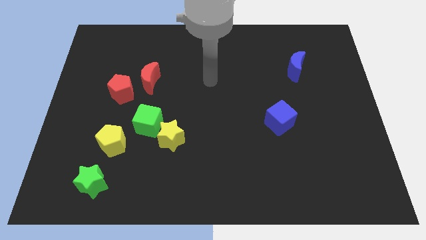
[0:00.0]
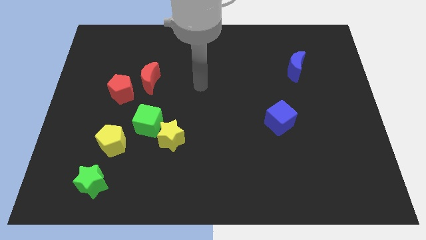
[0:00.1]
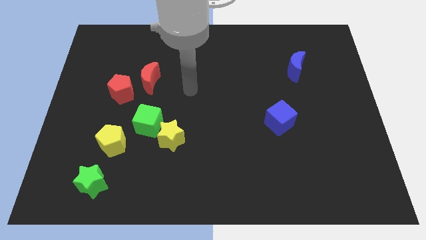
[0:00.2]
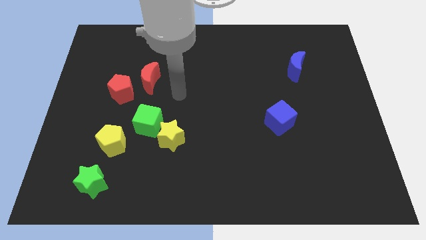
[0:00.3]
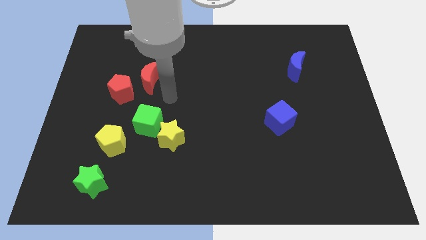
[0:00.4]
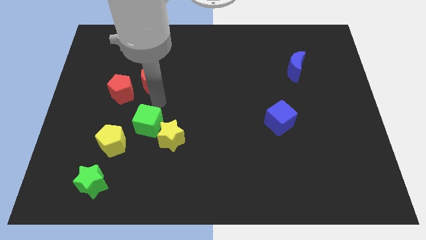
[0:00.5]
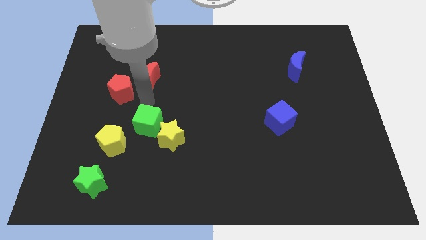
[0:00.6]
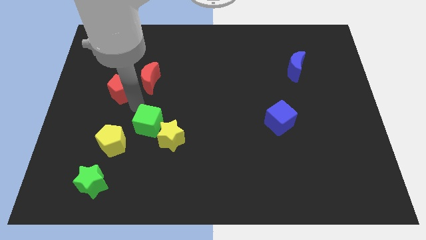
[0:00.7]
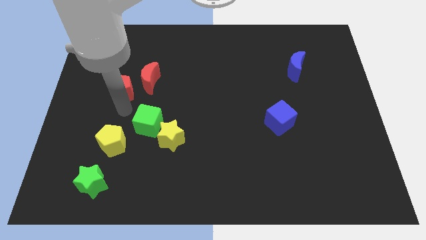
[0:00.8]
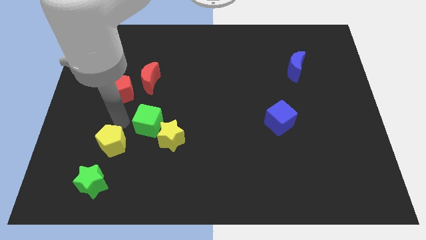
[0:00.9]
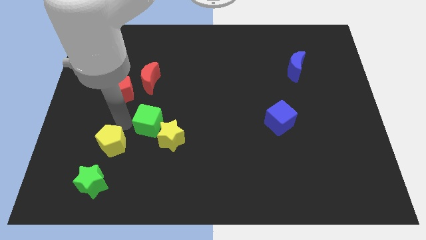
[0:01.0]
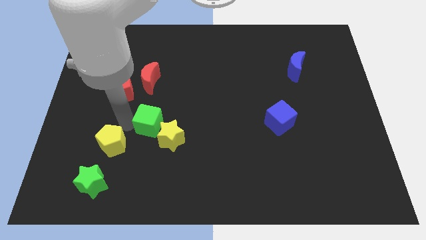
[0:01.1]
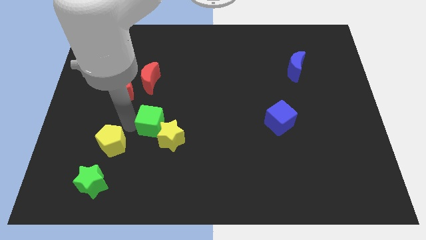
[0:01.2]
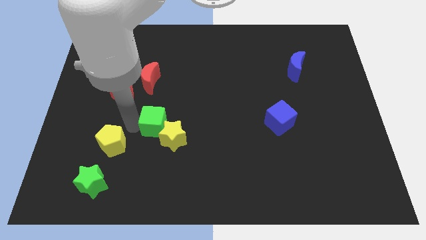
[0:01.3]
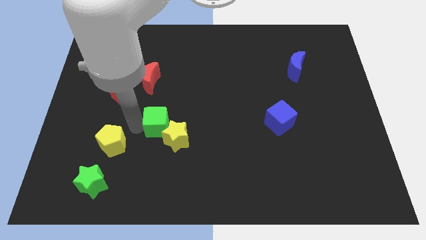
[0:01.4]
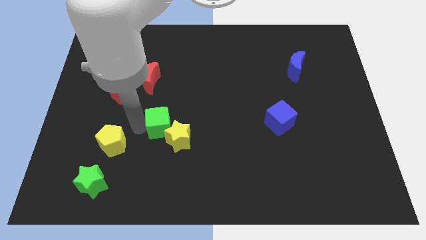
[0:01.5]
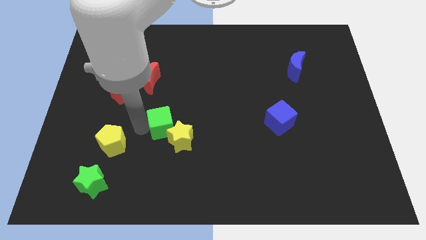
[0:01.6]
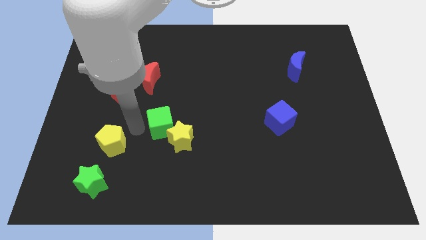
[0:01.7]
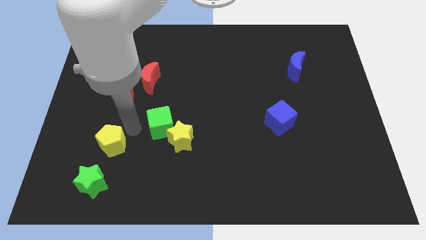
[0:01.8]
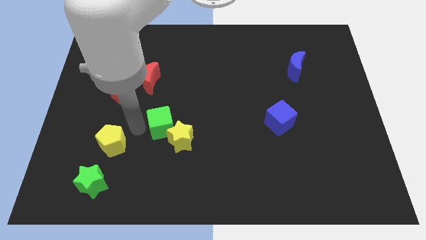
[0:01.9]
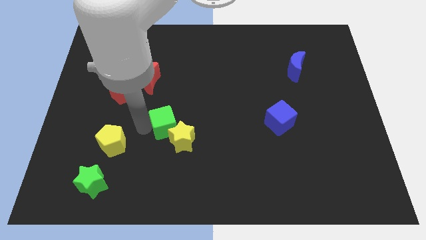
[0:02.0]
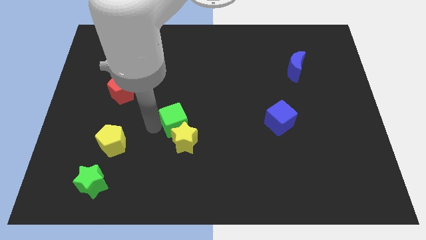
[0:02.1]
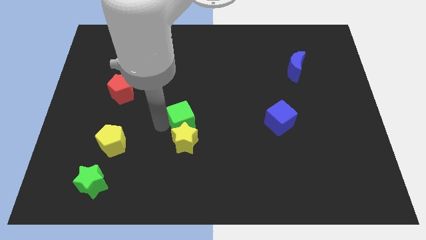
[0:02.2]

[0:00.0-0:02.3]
move the green cube somewhat to the right

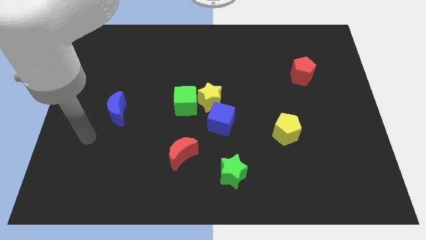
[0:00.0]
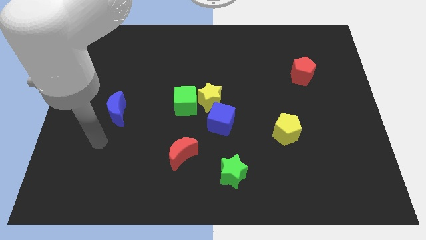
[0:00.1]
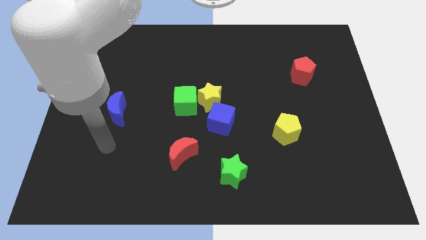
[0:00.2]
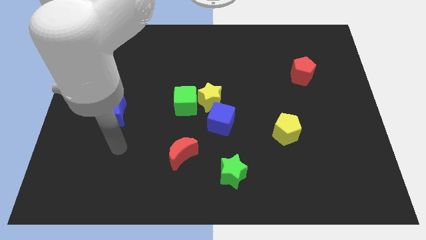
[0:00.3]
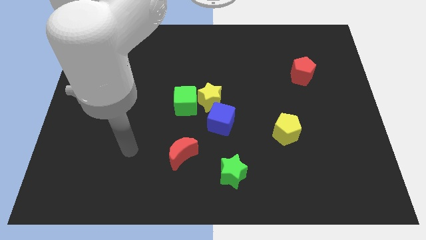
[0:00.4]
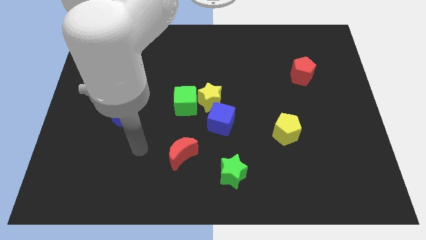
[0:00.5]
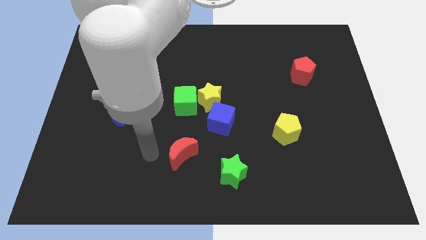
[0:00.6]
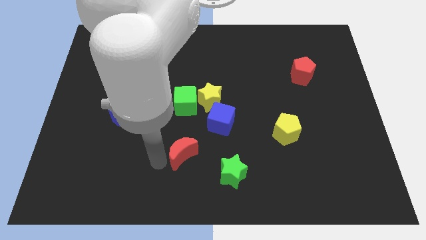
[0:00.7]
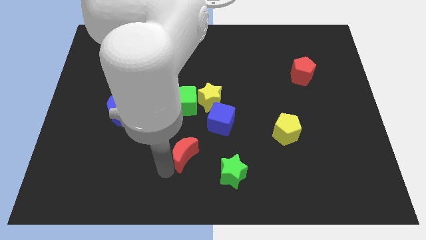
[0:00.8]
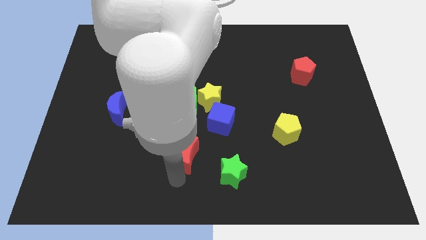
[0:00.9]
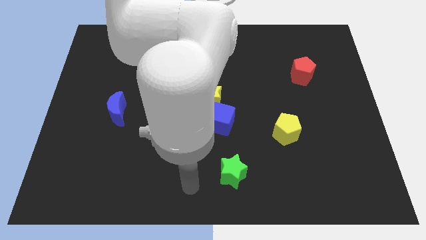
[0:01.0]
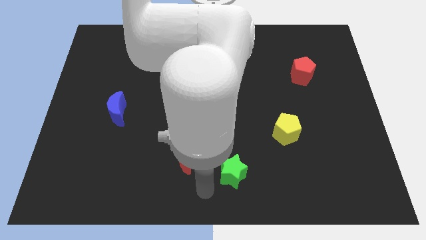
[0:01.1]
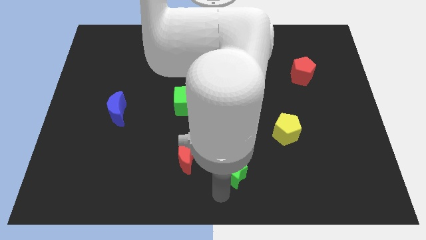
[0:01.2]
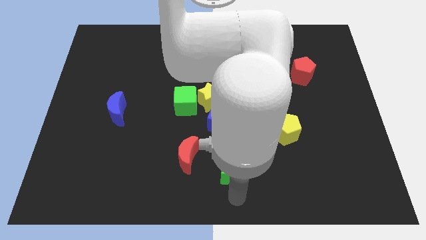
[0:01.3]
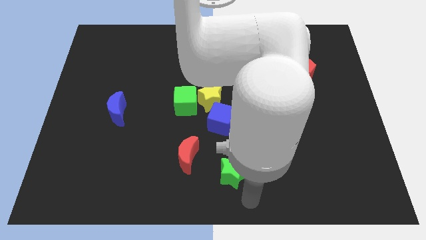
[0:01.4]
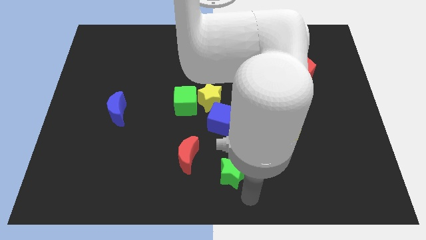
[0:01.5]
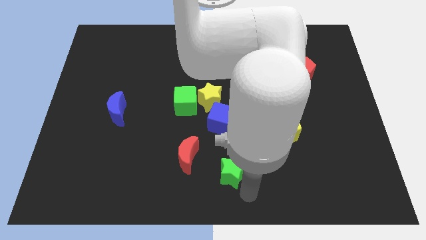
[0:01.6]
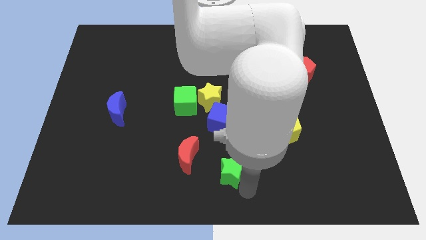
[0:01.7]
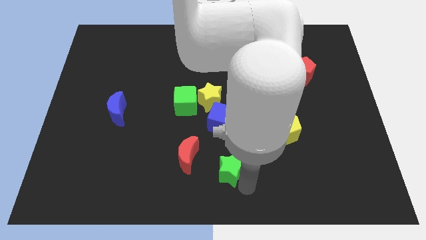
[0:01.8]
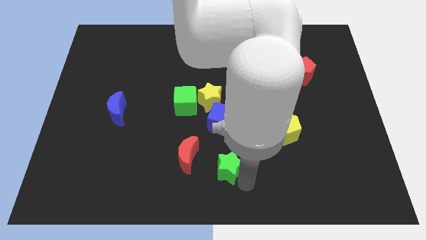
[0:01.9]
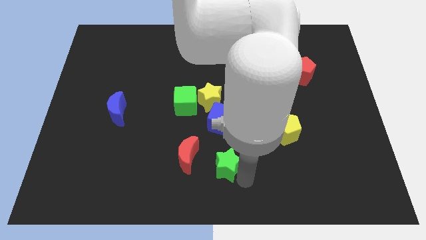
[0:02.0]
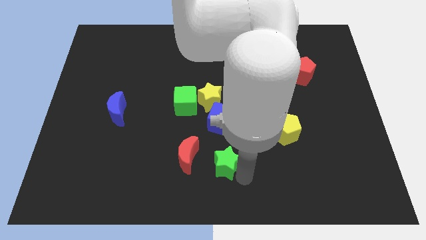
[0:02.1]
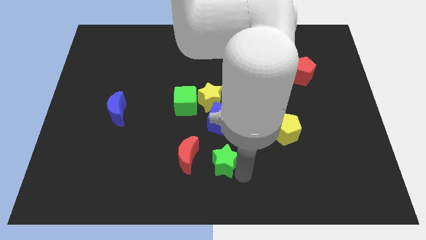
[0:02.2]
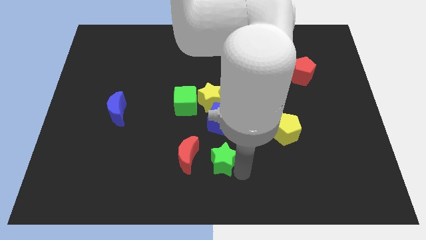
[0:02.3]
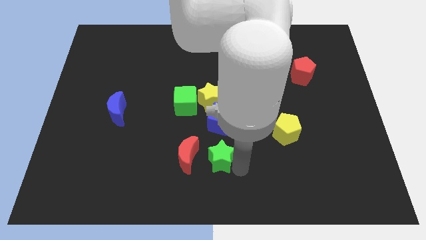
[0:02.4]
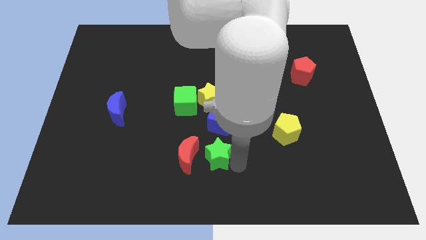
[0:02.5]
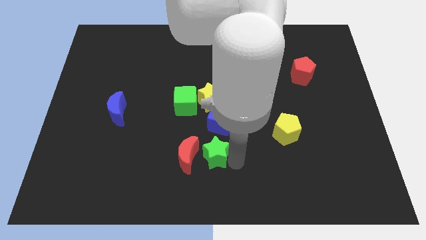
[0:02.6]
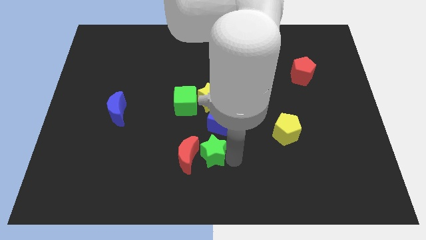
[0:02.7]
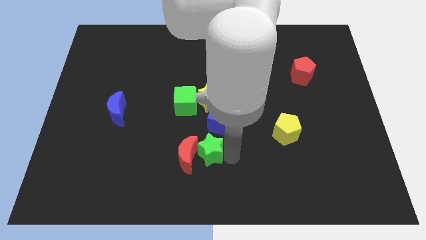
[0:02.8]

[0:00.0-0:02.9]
push the green star upwards and to the left diagonally a little bit

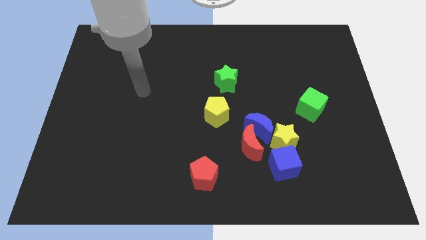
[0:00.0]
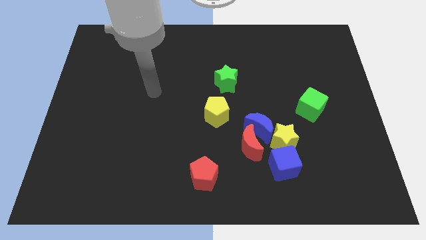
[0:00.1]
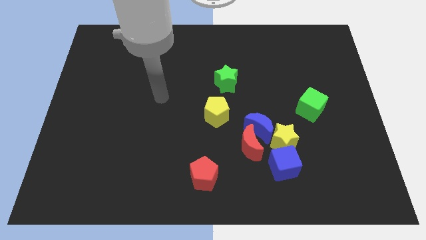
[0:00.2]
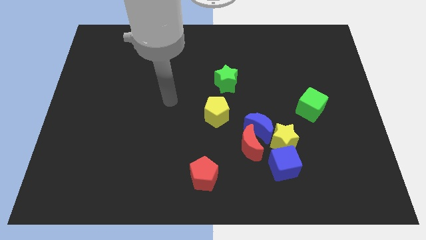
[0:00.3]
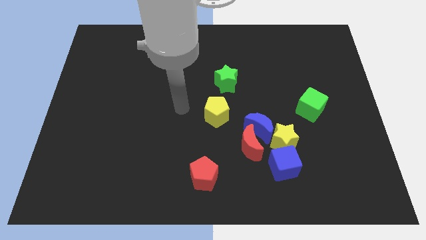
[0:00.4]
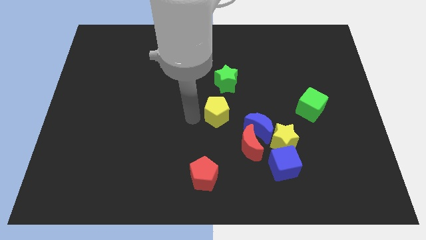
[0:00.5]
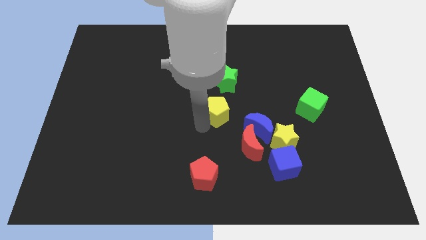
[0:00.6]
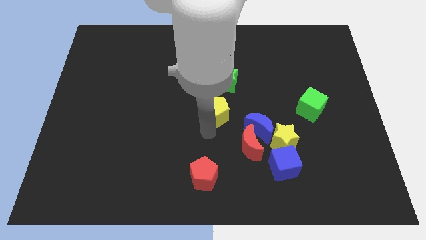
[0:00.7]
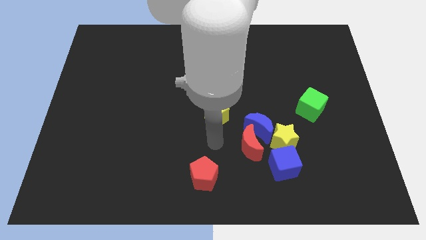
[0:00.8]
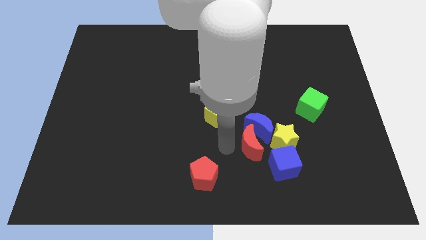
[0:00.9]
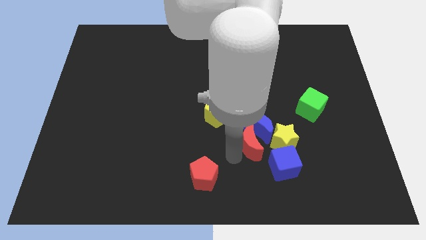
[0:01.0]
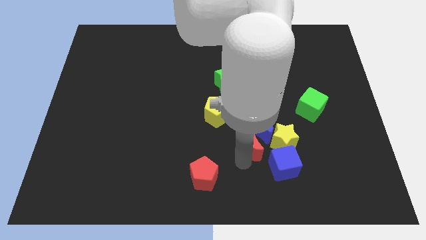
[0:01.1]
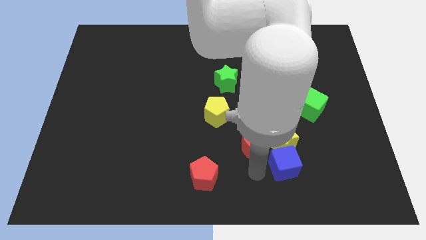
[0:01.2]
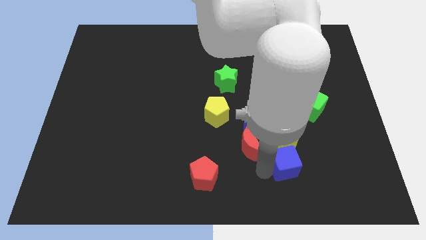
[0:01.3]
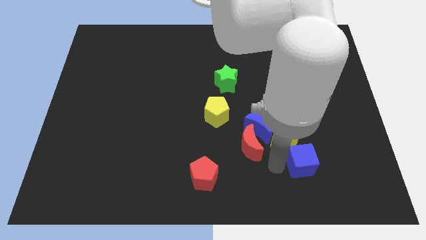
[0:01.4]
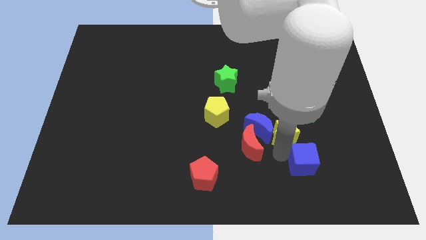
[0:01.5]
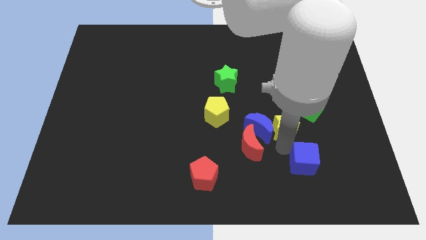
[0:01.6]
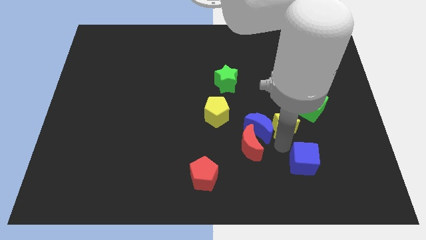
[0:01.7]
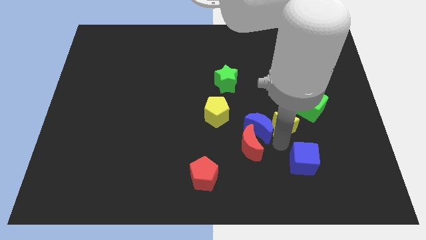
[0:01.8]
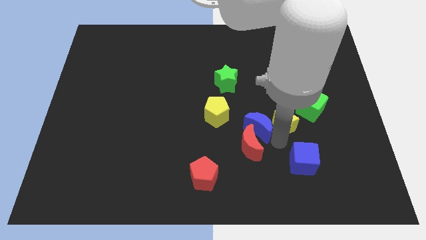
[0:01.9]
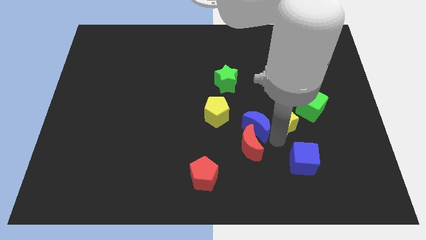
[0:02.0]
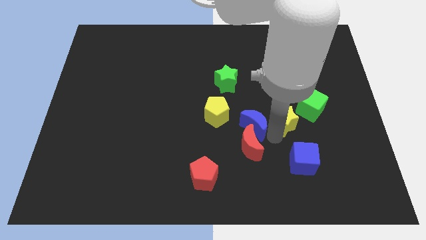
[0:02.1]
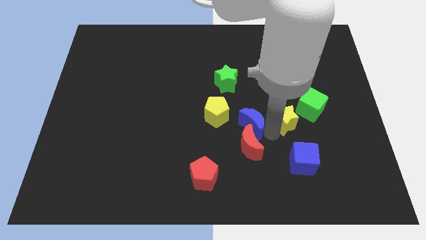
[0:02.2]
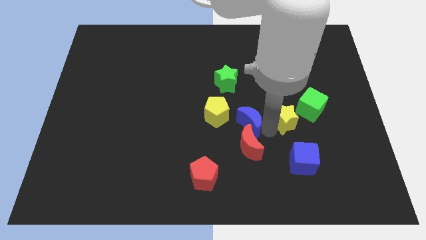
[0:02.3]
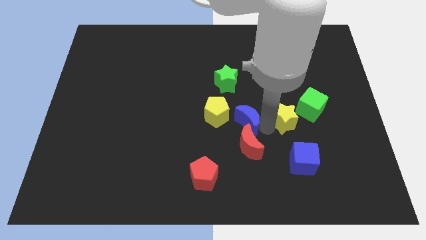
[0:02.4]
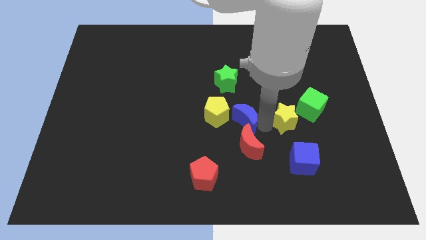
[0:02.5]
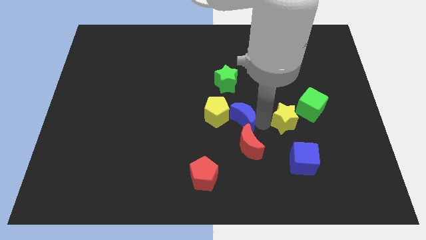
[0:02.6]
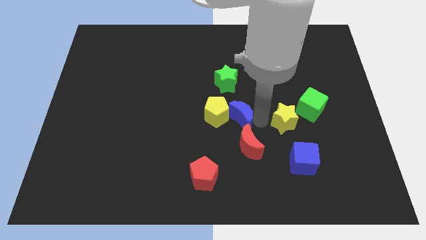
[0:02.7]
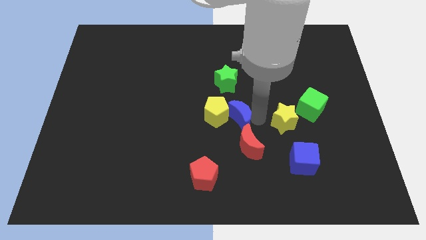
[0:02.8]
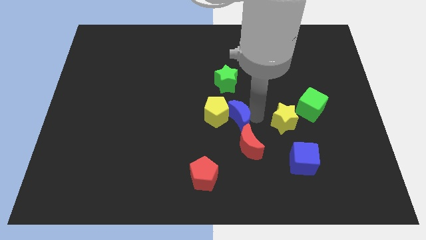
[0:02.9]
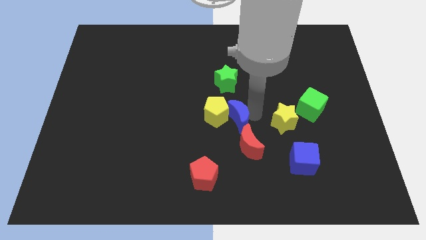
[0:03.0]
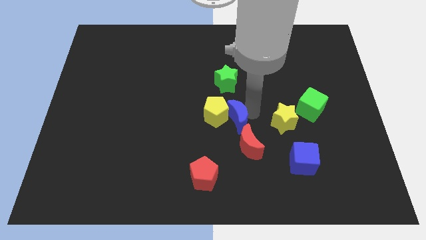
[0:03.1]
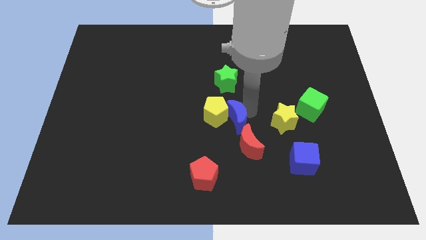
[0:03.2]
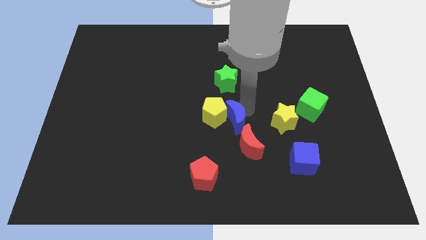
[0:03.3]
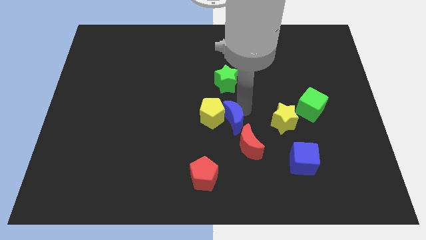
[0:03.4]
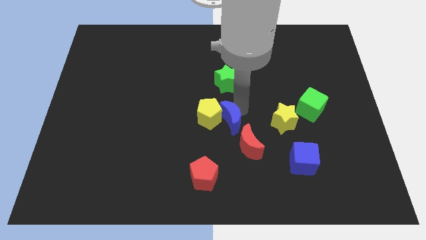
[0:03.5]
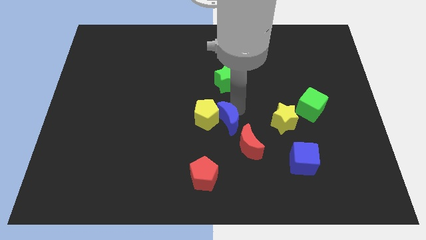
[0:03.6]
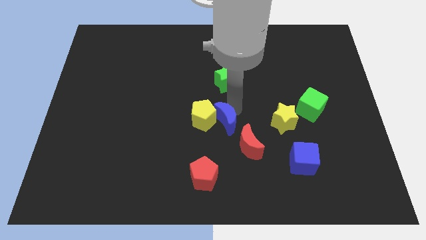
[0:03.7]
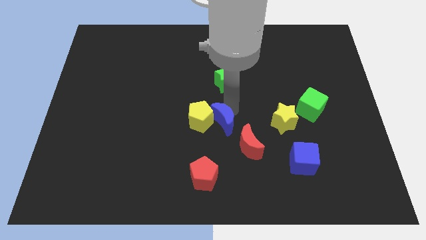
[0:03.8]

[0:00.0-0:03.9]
slightly move the blue moon upwards and then to the left
